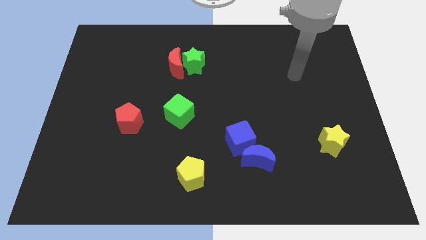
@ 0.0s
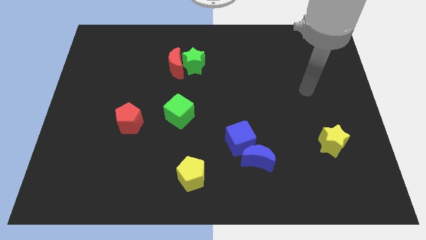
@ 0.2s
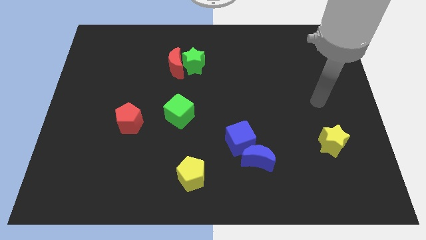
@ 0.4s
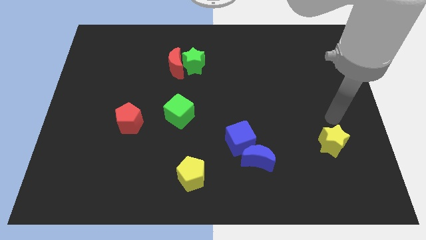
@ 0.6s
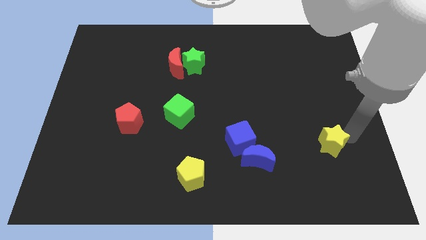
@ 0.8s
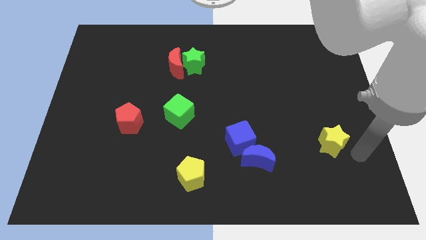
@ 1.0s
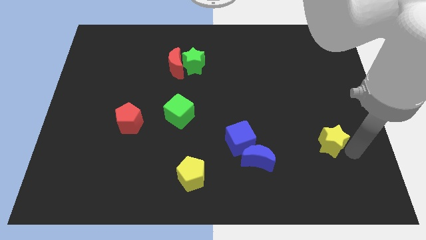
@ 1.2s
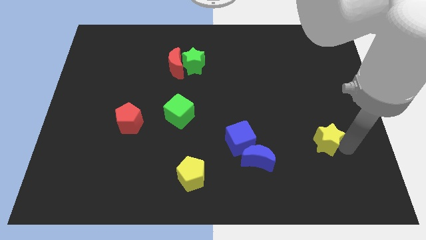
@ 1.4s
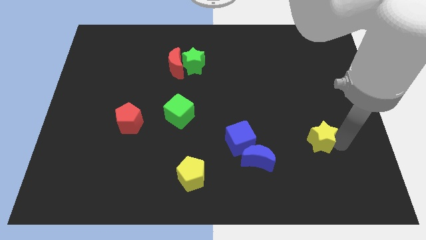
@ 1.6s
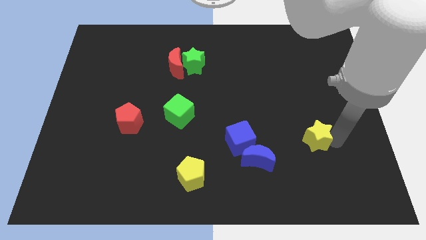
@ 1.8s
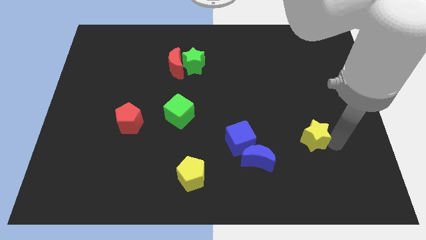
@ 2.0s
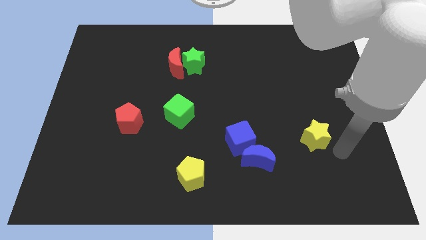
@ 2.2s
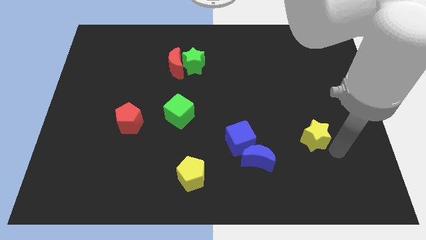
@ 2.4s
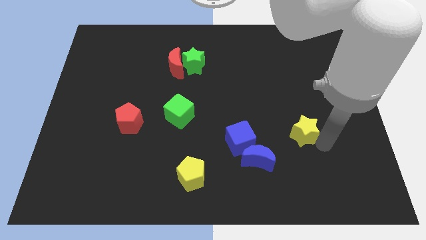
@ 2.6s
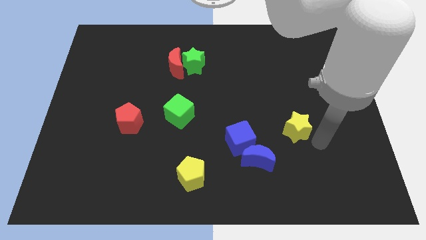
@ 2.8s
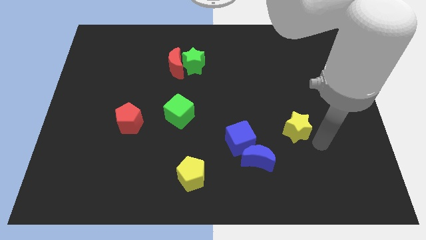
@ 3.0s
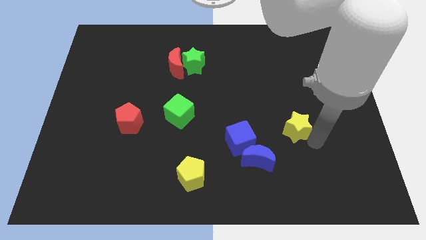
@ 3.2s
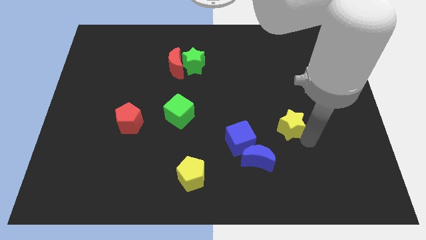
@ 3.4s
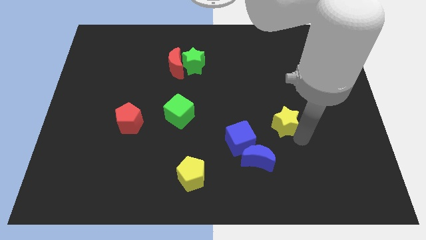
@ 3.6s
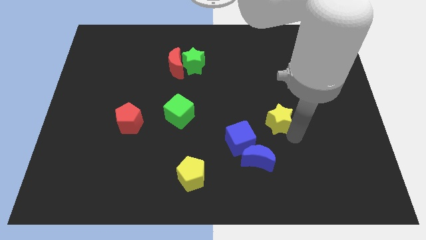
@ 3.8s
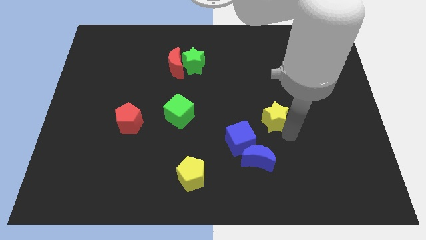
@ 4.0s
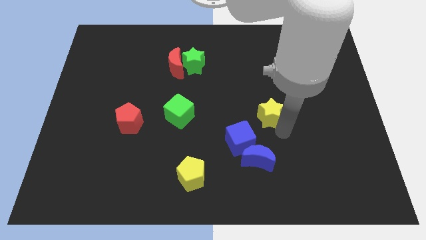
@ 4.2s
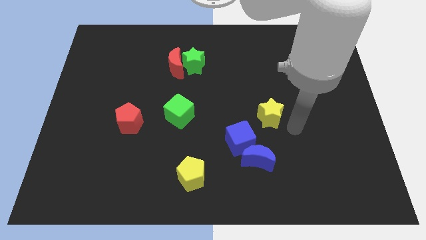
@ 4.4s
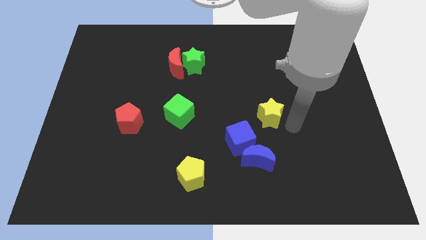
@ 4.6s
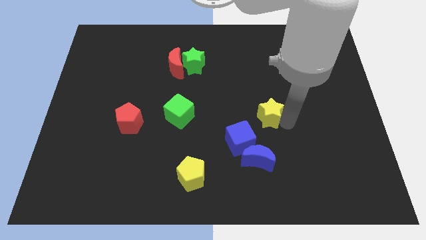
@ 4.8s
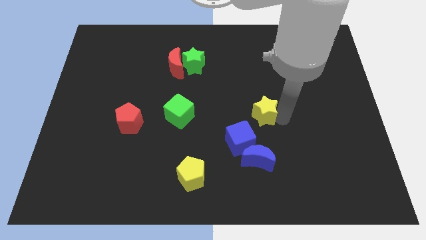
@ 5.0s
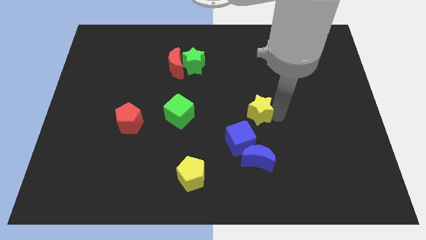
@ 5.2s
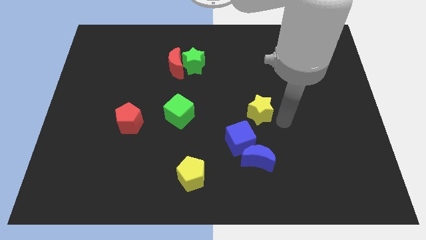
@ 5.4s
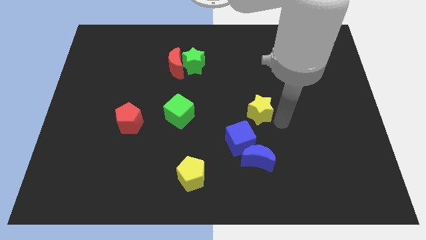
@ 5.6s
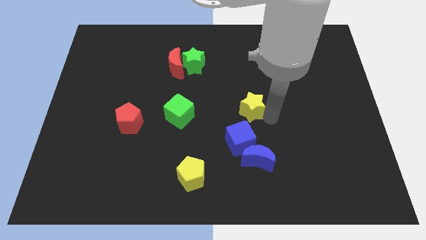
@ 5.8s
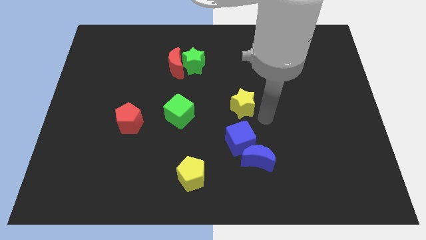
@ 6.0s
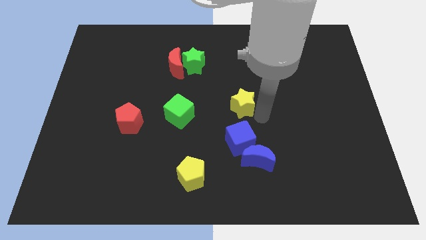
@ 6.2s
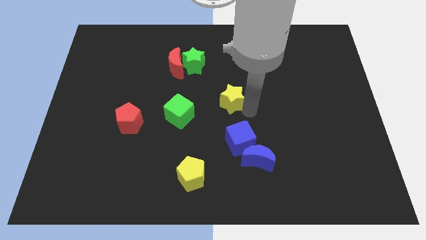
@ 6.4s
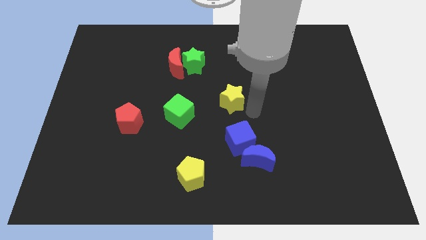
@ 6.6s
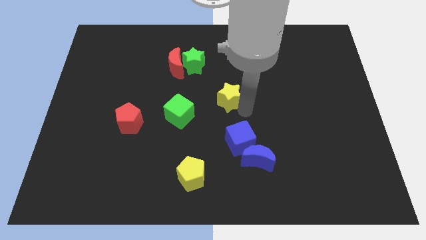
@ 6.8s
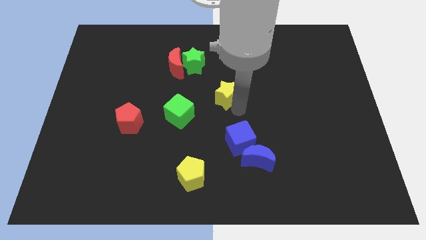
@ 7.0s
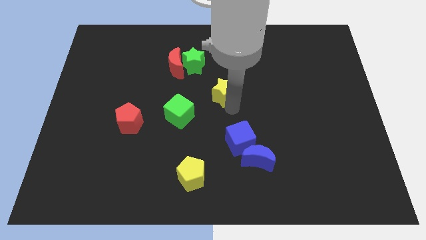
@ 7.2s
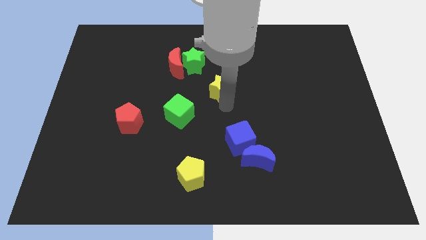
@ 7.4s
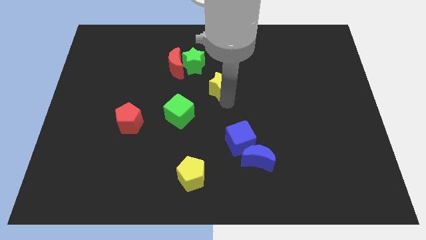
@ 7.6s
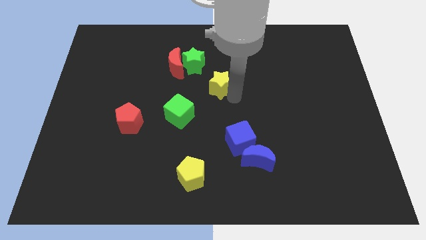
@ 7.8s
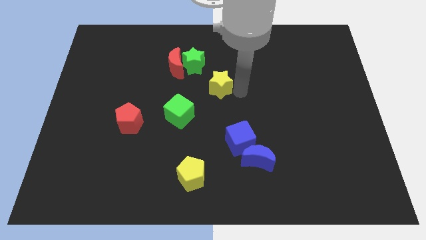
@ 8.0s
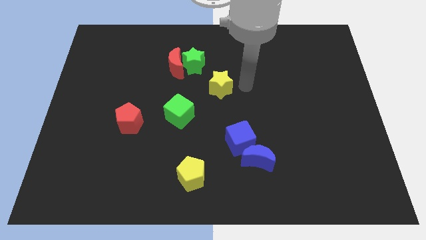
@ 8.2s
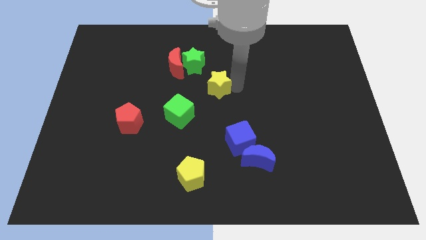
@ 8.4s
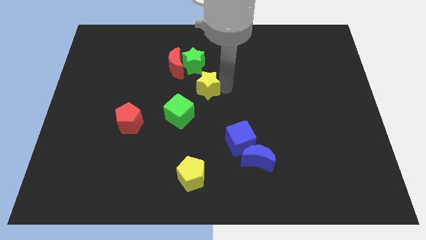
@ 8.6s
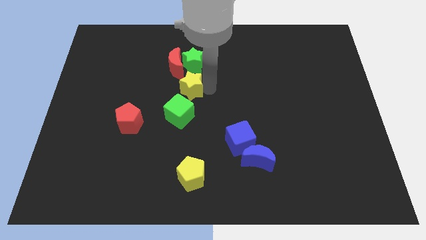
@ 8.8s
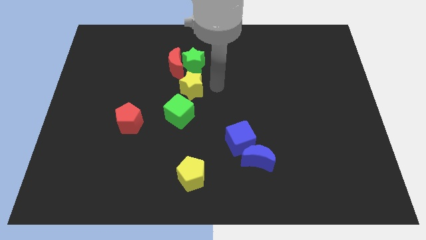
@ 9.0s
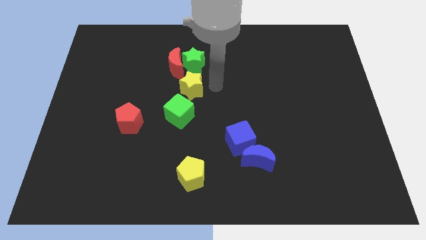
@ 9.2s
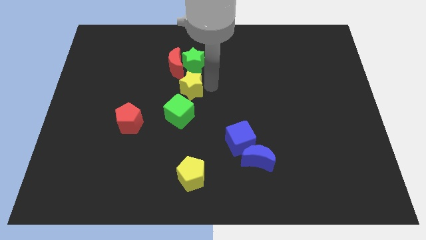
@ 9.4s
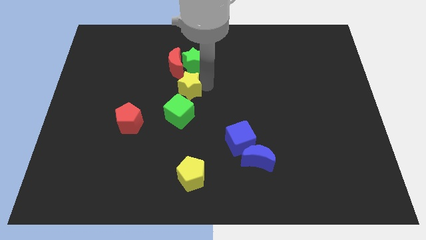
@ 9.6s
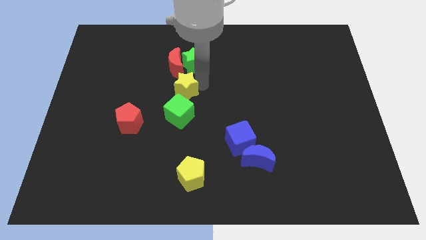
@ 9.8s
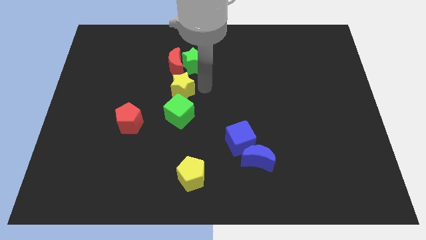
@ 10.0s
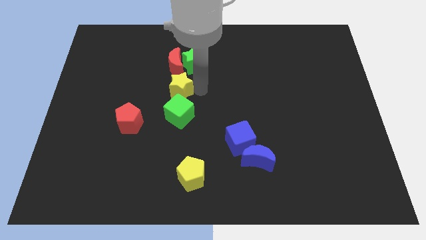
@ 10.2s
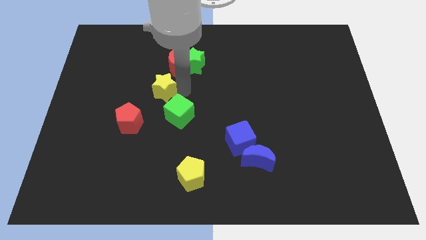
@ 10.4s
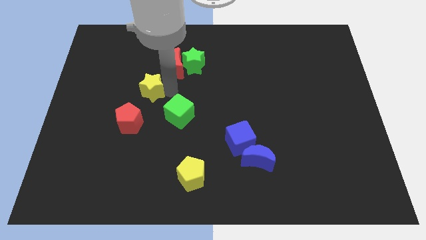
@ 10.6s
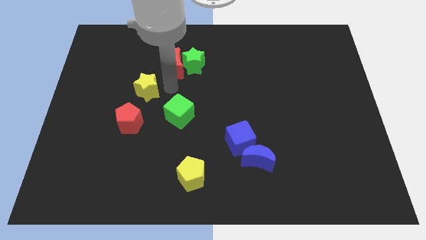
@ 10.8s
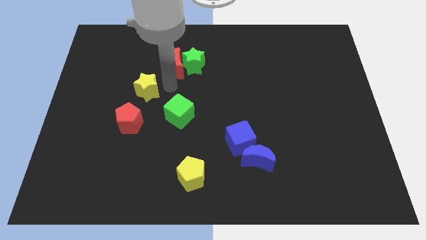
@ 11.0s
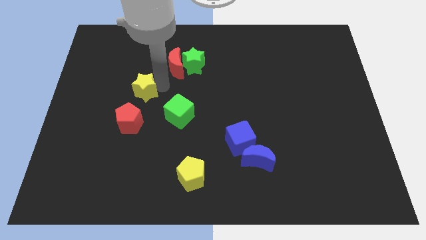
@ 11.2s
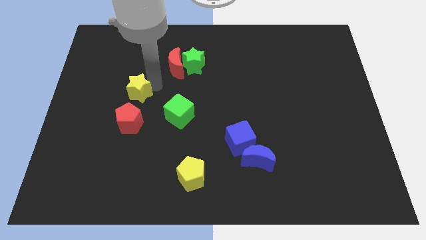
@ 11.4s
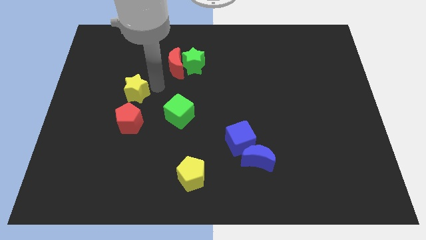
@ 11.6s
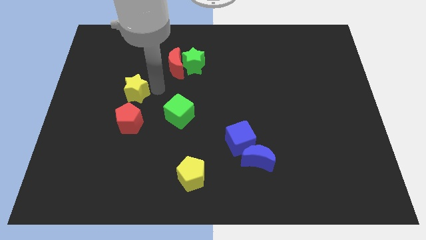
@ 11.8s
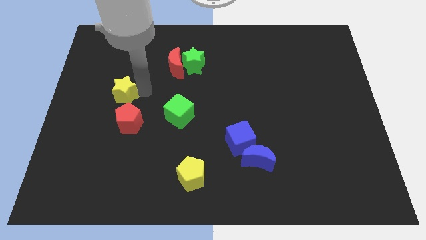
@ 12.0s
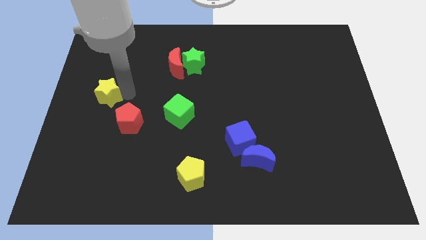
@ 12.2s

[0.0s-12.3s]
move the yellow star to the center left
